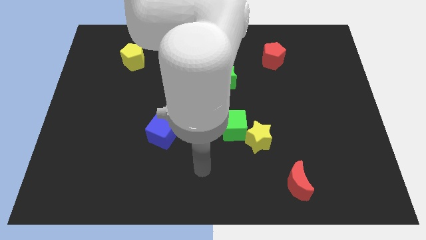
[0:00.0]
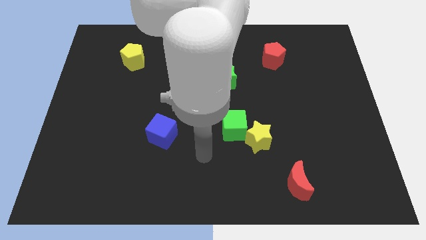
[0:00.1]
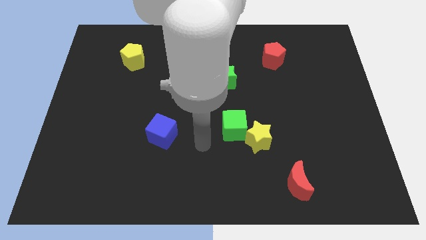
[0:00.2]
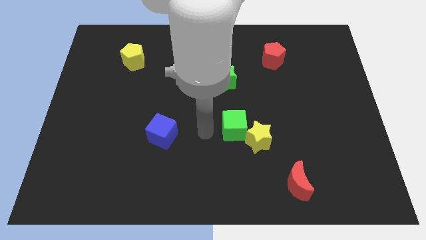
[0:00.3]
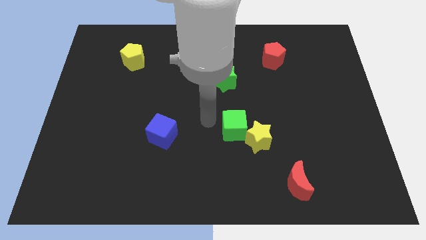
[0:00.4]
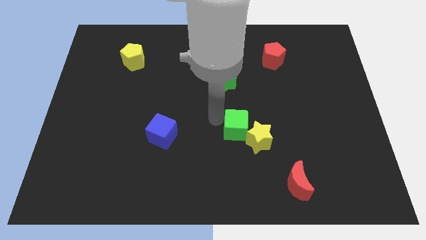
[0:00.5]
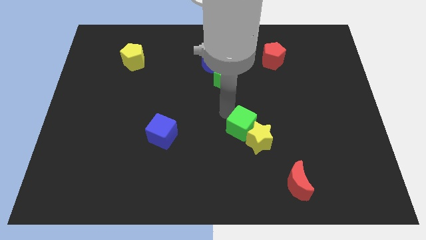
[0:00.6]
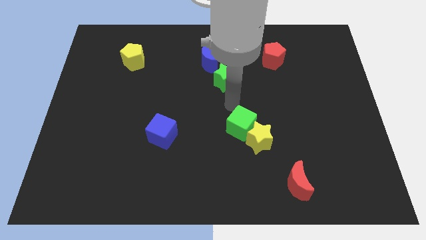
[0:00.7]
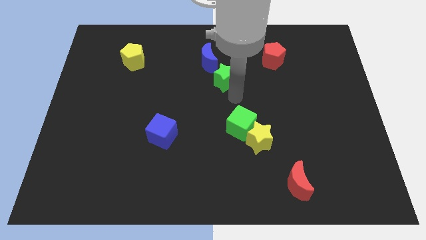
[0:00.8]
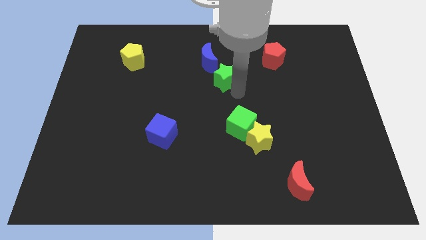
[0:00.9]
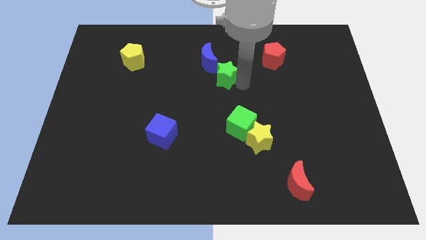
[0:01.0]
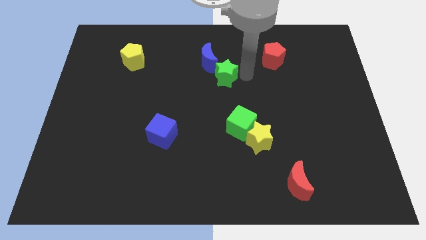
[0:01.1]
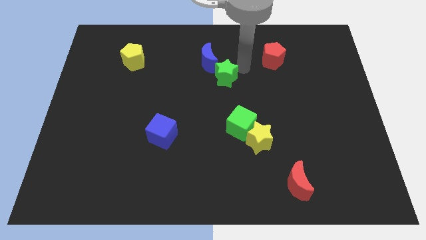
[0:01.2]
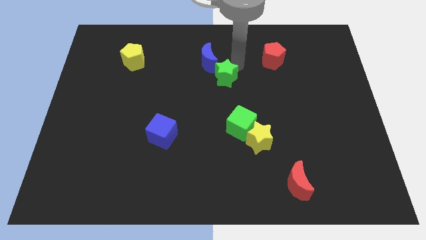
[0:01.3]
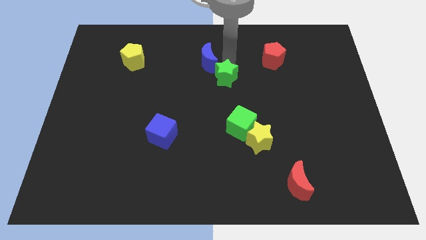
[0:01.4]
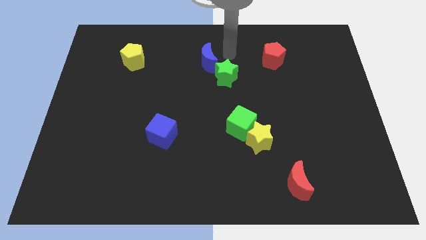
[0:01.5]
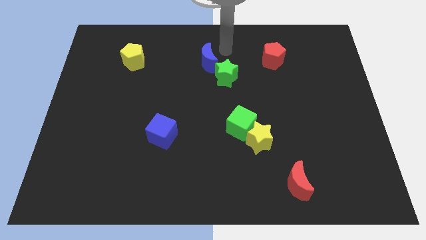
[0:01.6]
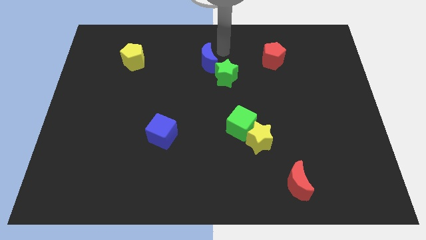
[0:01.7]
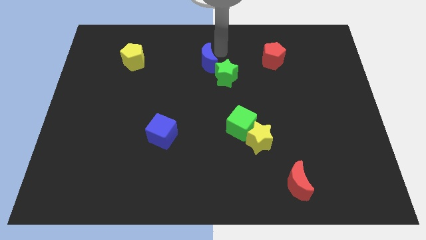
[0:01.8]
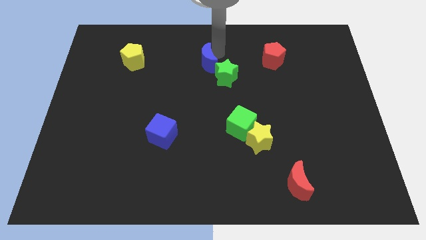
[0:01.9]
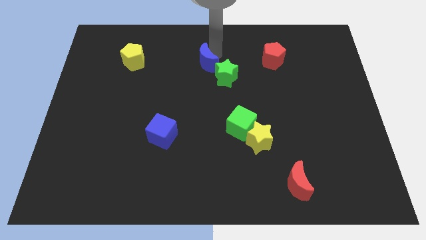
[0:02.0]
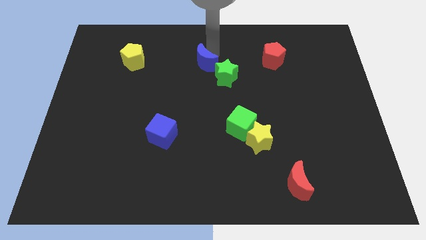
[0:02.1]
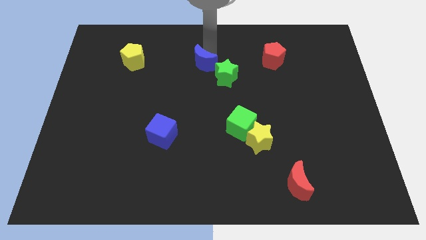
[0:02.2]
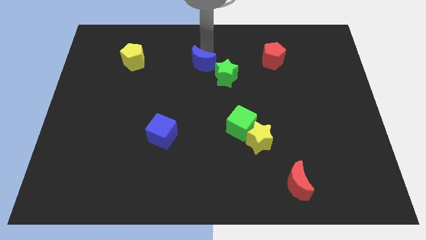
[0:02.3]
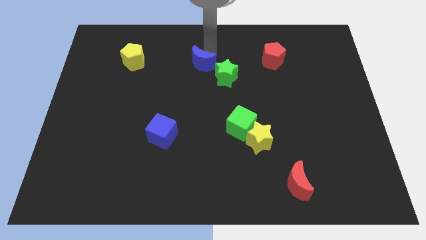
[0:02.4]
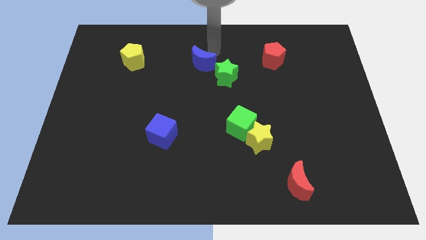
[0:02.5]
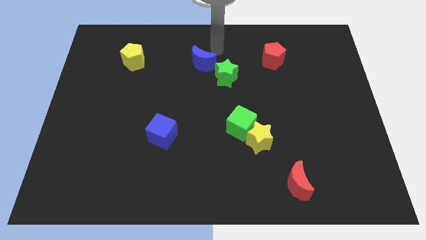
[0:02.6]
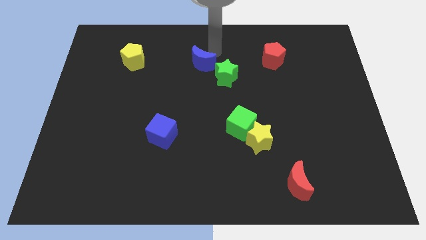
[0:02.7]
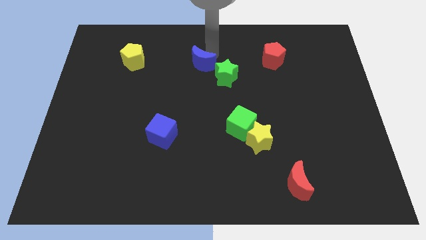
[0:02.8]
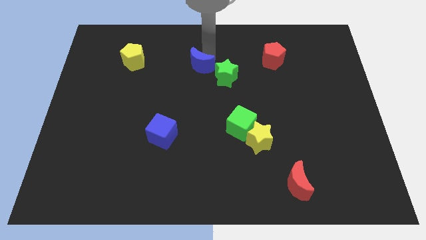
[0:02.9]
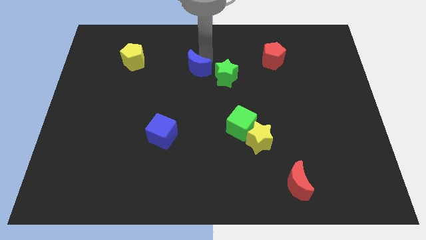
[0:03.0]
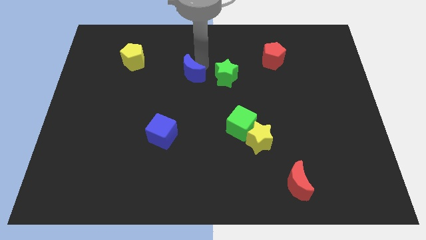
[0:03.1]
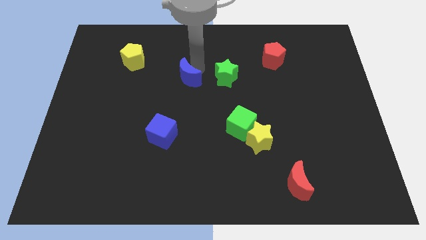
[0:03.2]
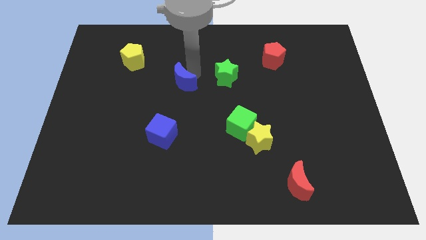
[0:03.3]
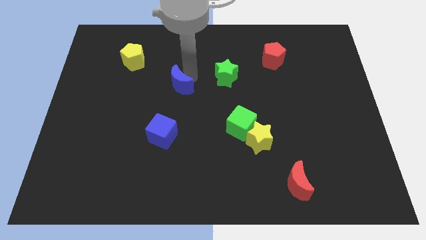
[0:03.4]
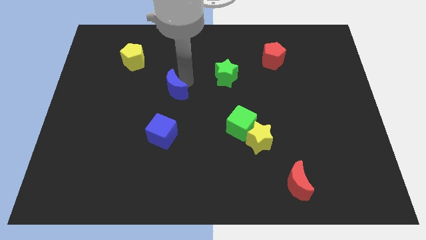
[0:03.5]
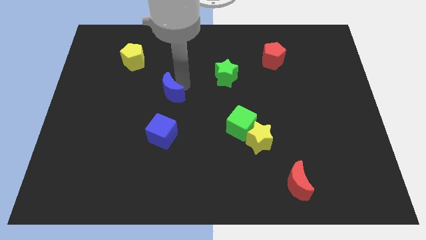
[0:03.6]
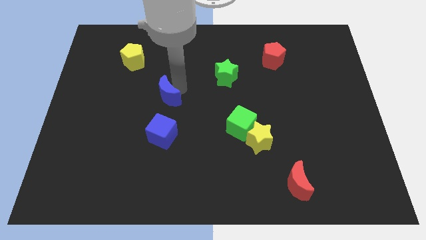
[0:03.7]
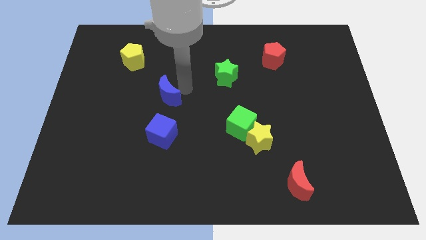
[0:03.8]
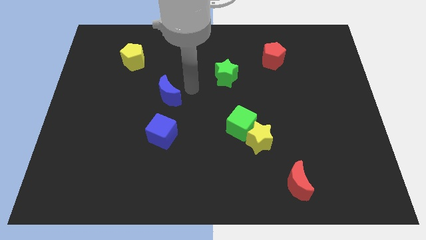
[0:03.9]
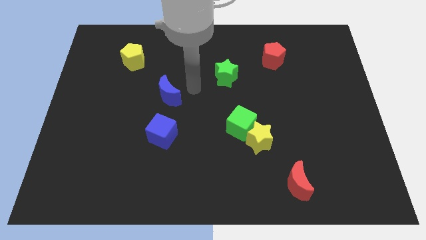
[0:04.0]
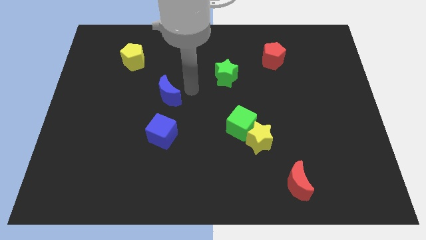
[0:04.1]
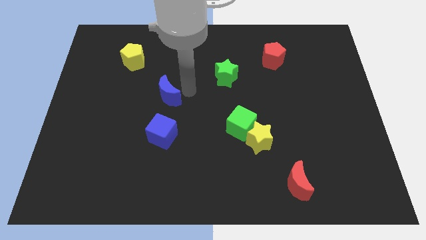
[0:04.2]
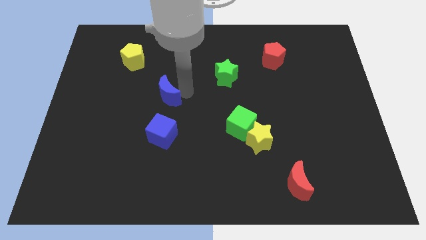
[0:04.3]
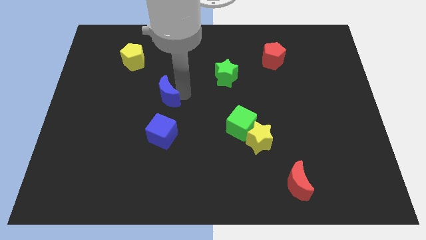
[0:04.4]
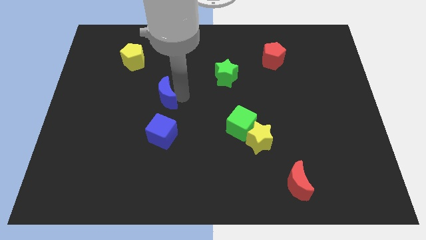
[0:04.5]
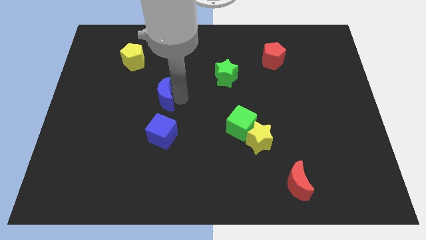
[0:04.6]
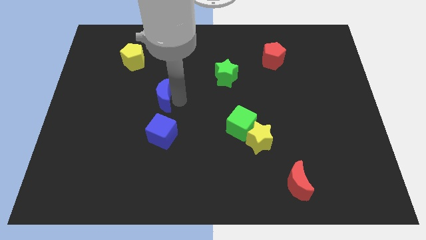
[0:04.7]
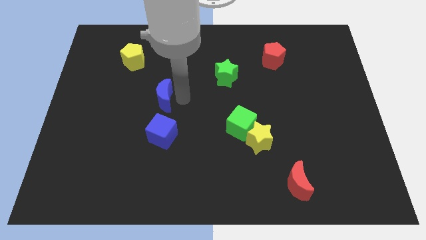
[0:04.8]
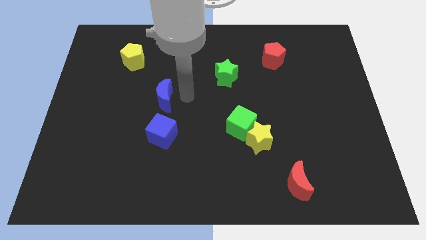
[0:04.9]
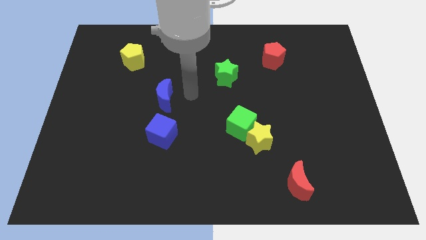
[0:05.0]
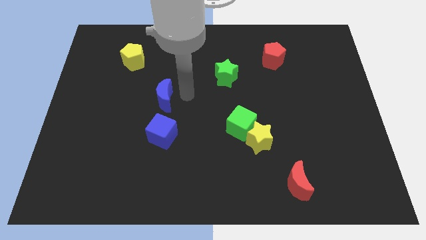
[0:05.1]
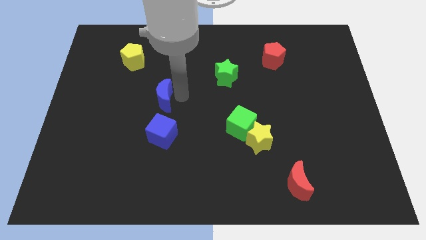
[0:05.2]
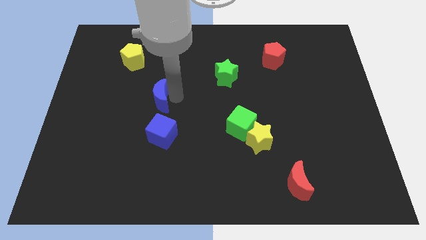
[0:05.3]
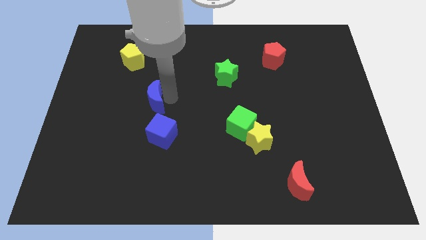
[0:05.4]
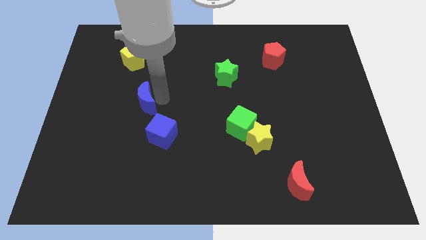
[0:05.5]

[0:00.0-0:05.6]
slide the blue moon downwards and then left

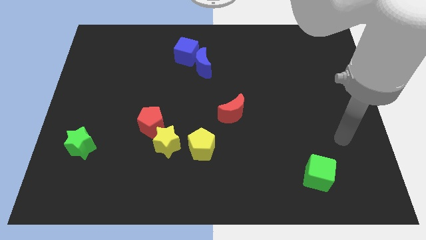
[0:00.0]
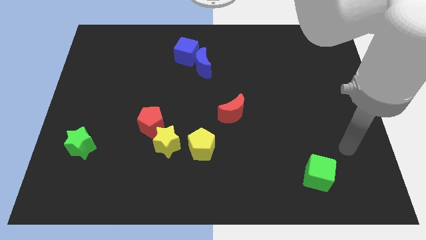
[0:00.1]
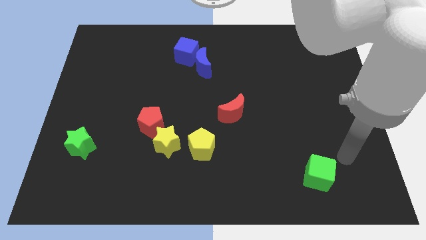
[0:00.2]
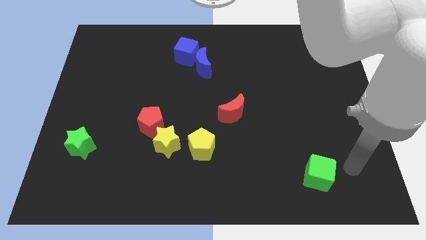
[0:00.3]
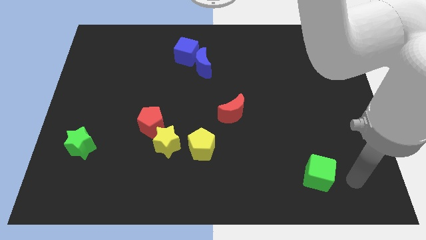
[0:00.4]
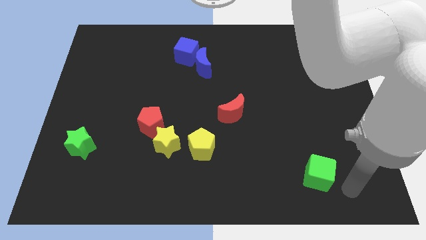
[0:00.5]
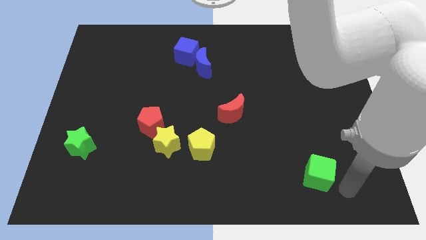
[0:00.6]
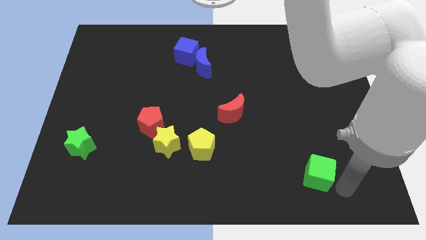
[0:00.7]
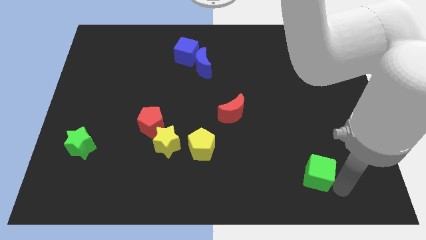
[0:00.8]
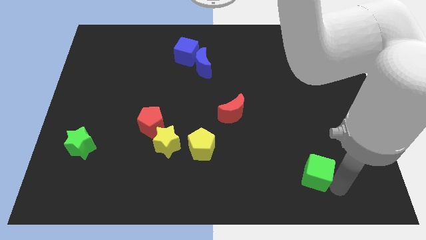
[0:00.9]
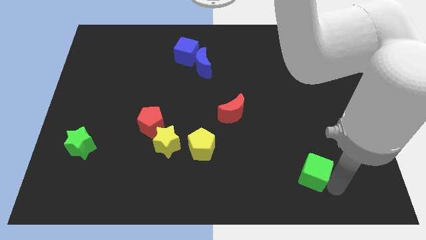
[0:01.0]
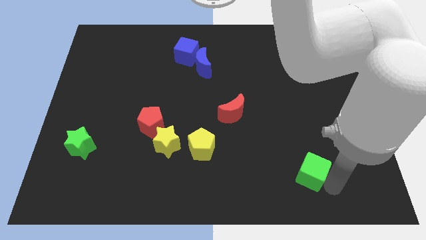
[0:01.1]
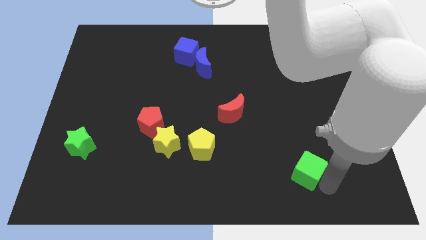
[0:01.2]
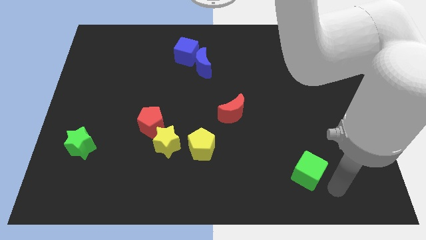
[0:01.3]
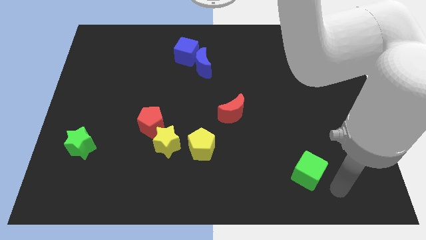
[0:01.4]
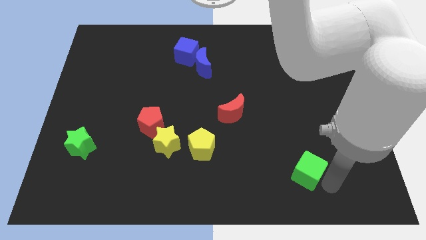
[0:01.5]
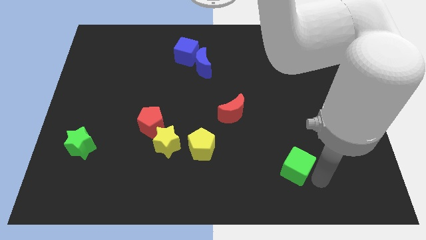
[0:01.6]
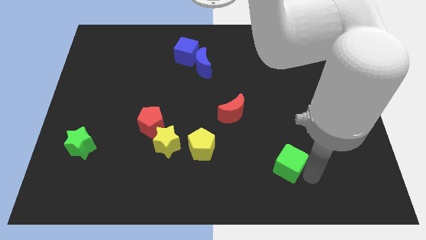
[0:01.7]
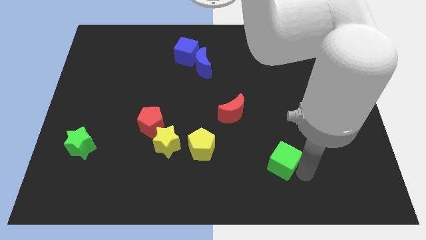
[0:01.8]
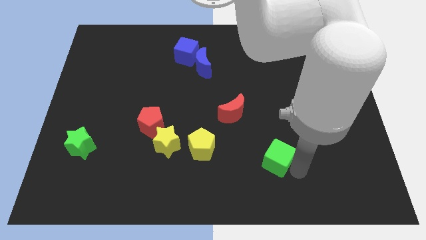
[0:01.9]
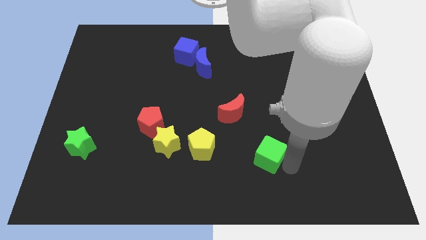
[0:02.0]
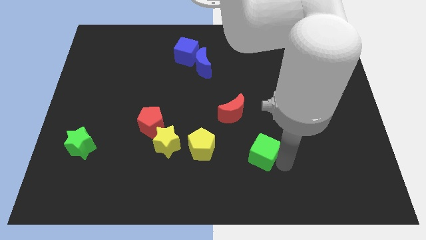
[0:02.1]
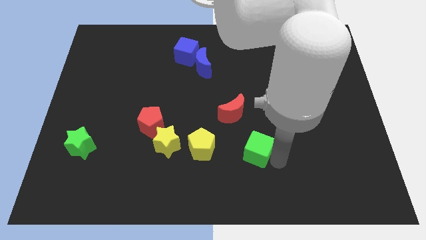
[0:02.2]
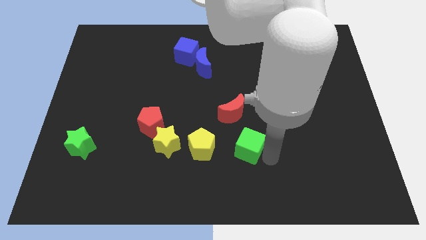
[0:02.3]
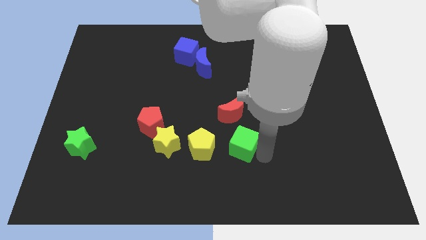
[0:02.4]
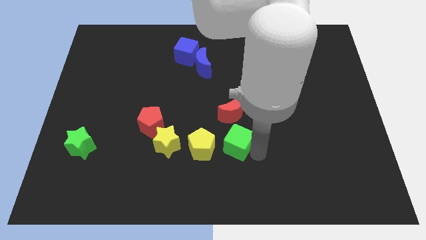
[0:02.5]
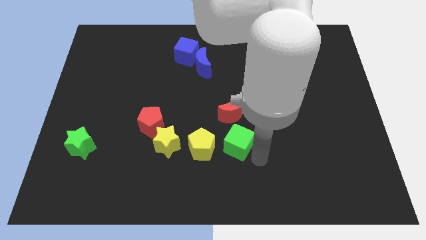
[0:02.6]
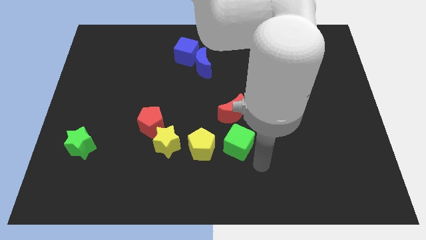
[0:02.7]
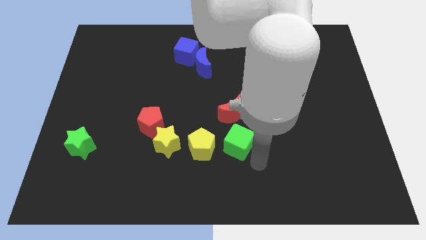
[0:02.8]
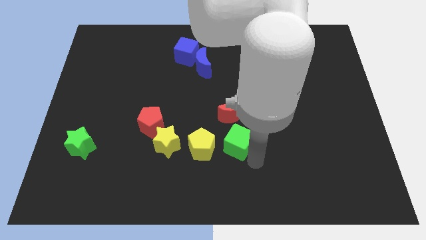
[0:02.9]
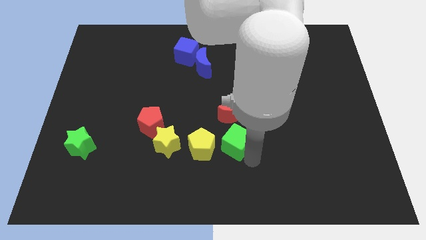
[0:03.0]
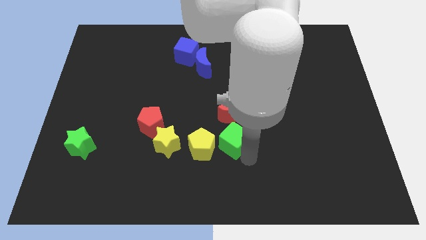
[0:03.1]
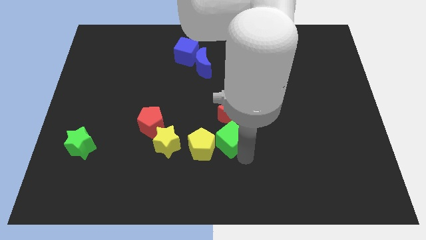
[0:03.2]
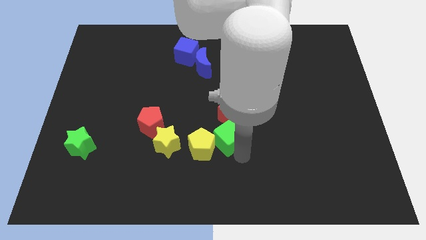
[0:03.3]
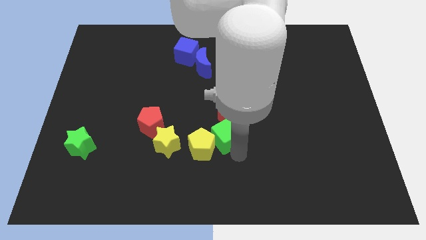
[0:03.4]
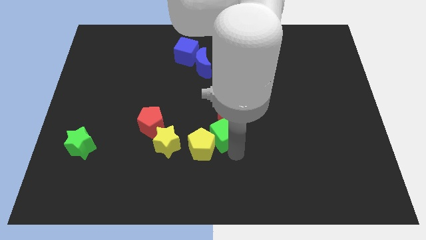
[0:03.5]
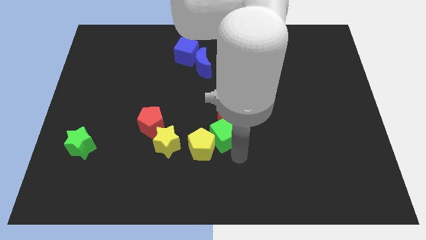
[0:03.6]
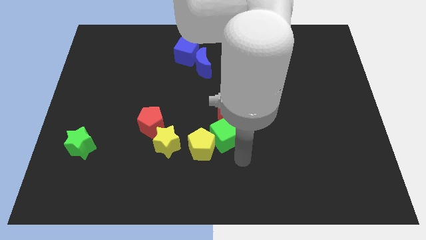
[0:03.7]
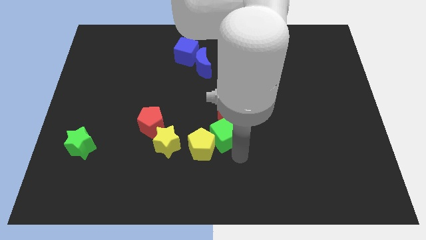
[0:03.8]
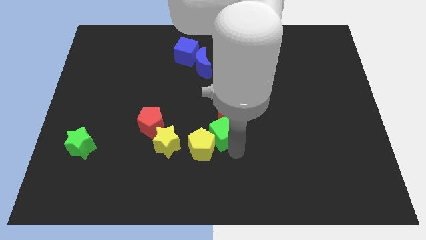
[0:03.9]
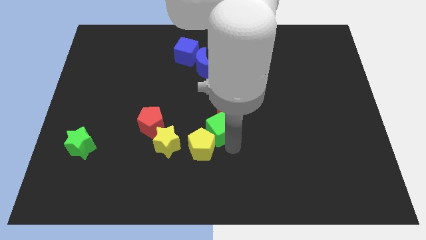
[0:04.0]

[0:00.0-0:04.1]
slide the green cube diagonally upwards and to the left
